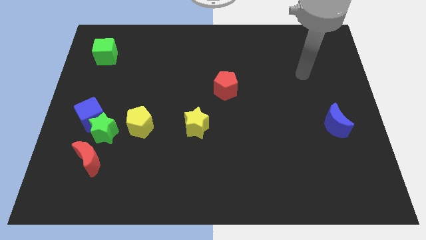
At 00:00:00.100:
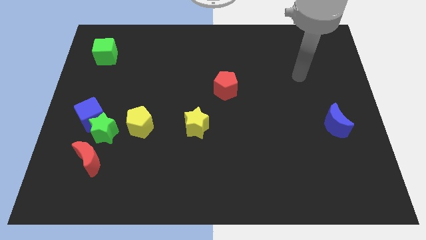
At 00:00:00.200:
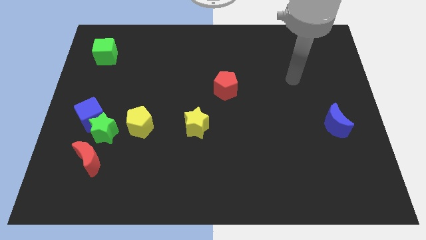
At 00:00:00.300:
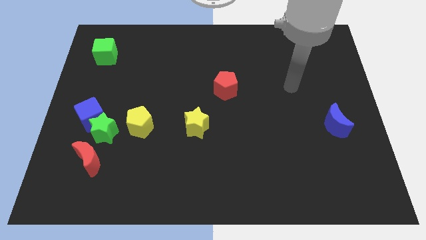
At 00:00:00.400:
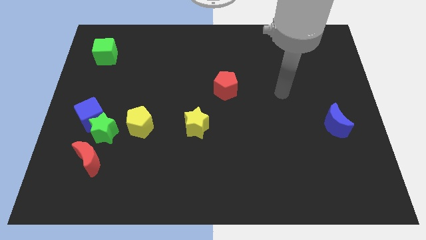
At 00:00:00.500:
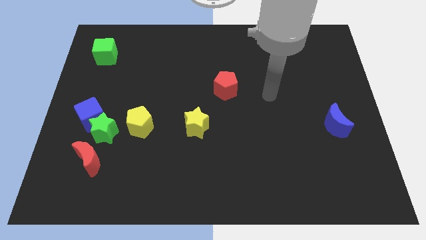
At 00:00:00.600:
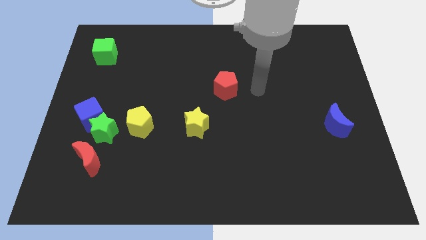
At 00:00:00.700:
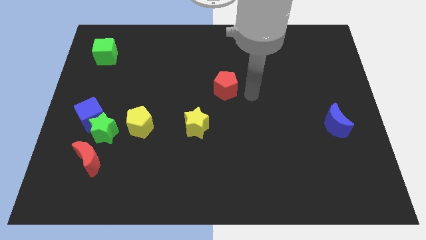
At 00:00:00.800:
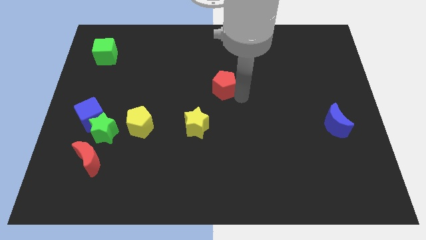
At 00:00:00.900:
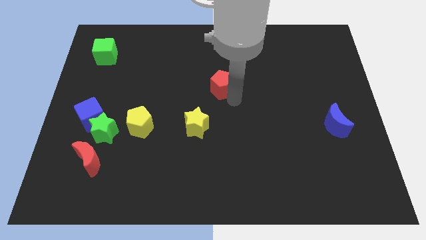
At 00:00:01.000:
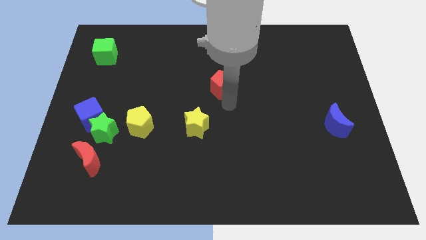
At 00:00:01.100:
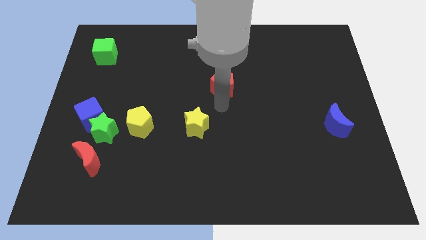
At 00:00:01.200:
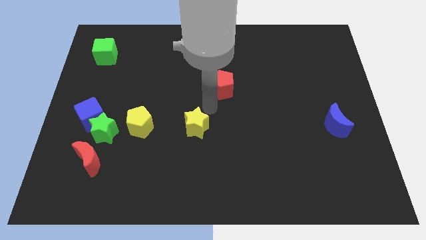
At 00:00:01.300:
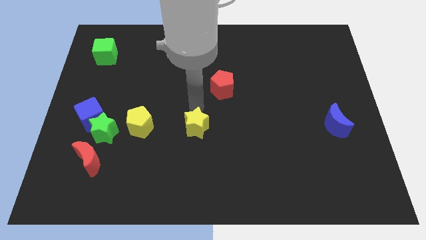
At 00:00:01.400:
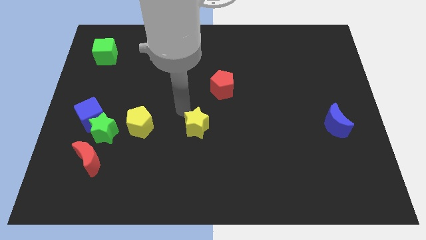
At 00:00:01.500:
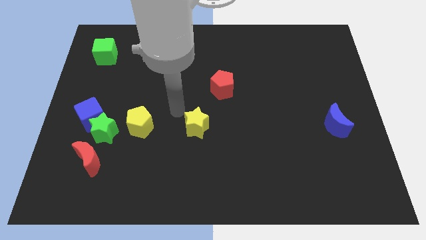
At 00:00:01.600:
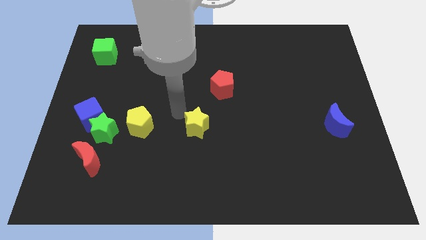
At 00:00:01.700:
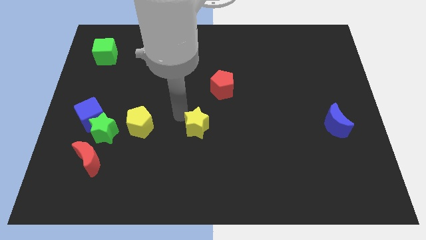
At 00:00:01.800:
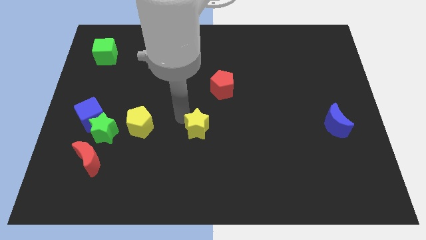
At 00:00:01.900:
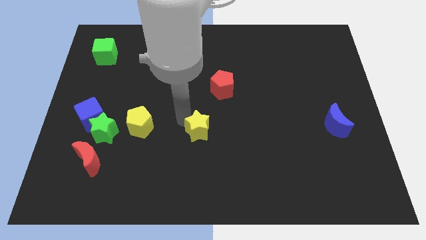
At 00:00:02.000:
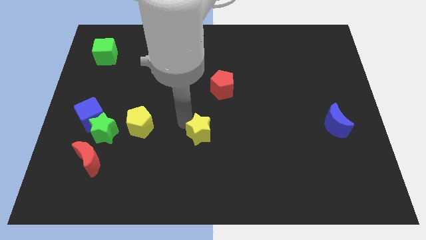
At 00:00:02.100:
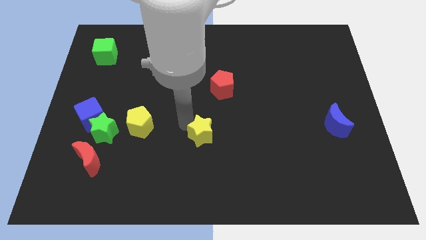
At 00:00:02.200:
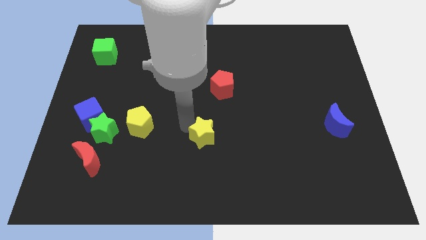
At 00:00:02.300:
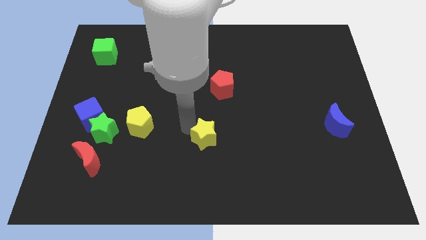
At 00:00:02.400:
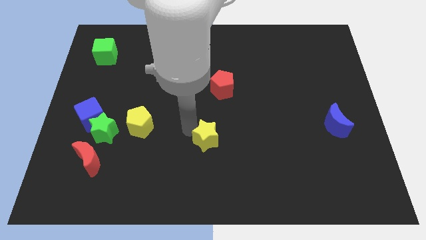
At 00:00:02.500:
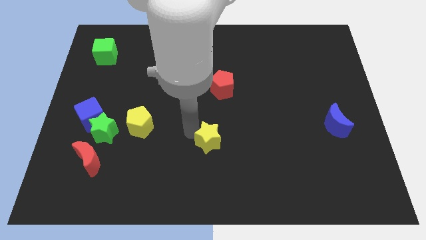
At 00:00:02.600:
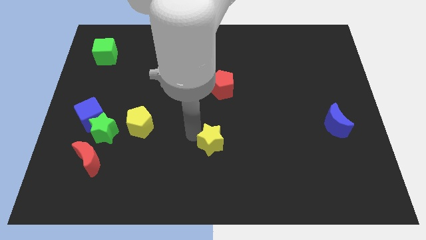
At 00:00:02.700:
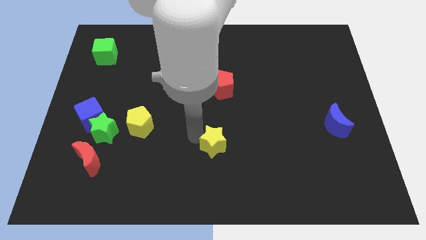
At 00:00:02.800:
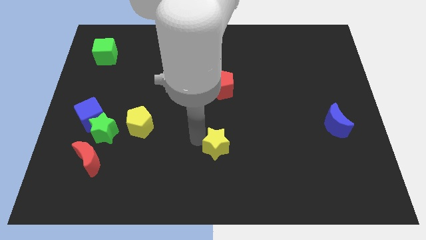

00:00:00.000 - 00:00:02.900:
move the yellow star downwards and then to the right a bit

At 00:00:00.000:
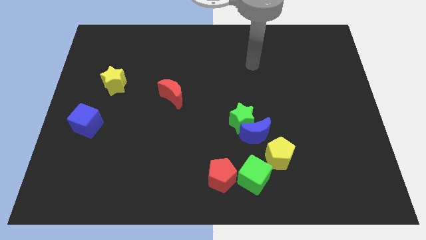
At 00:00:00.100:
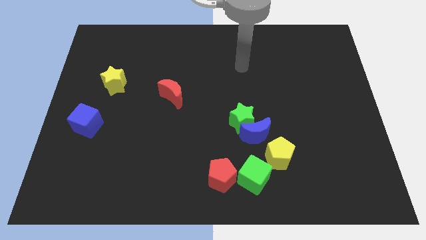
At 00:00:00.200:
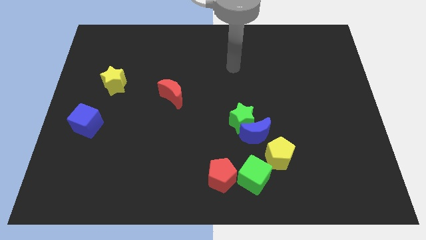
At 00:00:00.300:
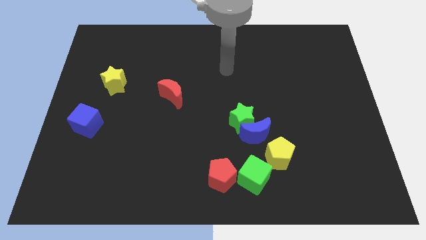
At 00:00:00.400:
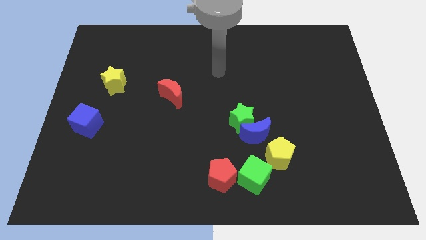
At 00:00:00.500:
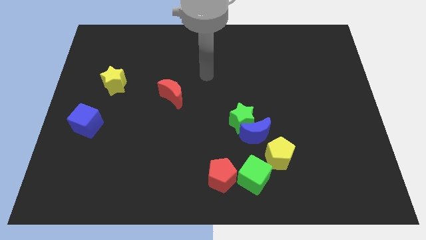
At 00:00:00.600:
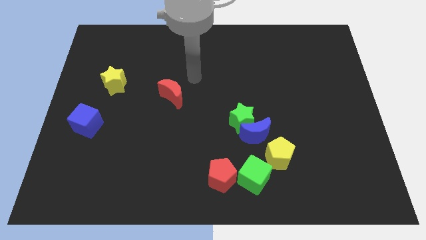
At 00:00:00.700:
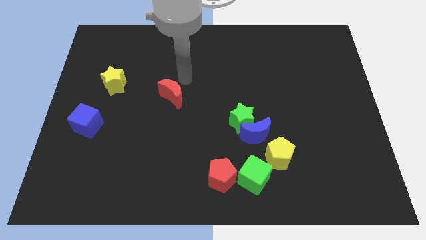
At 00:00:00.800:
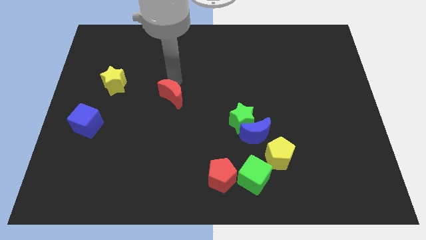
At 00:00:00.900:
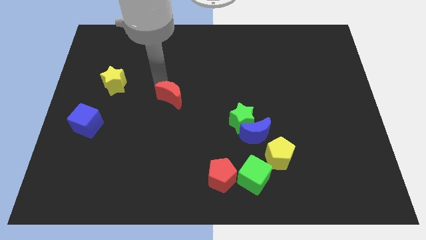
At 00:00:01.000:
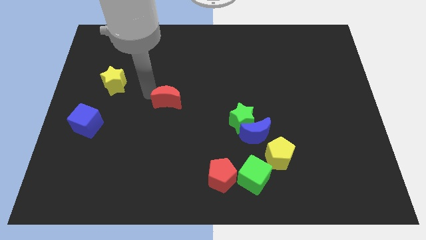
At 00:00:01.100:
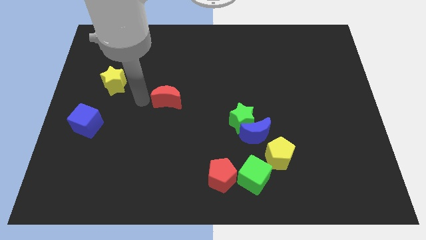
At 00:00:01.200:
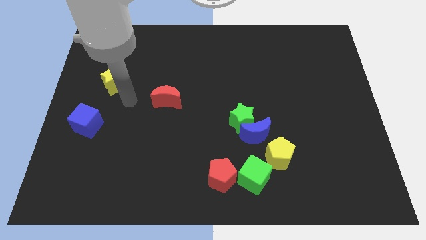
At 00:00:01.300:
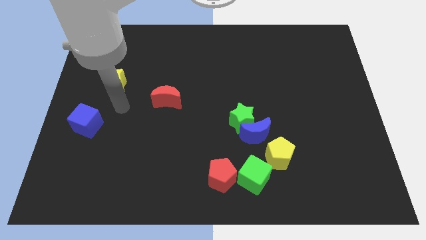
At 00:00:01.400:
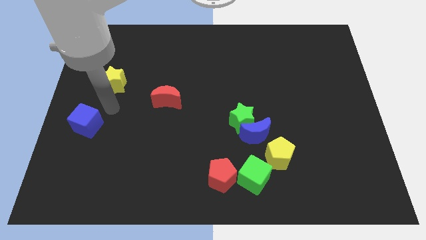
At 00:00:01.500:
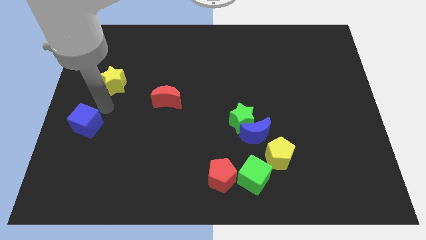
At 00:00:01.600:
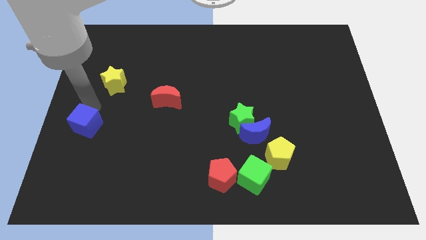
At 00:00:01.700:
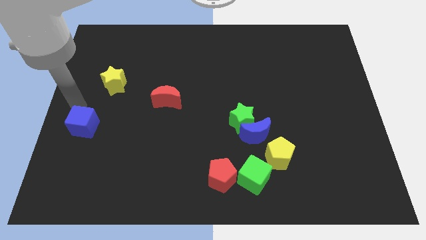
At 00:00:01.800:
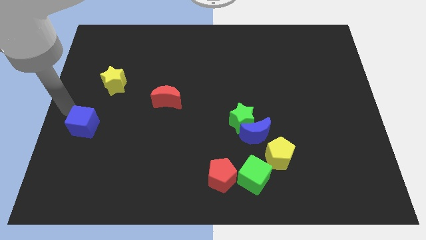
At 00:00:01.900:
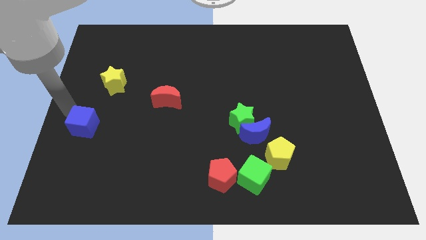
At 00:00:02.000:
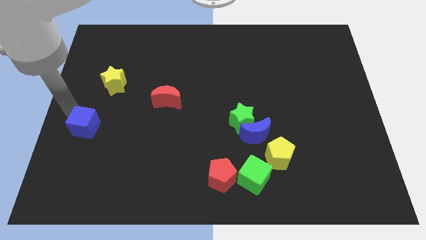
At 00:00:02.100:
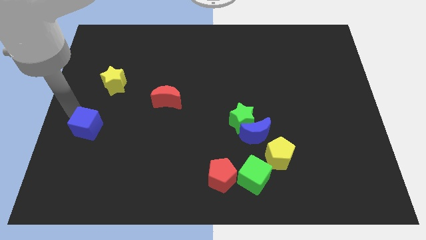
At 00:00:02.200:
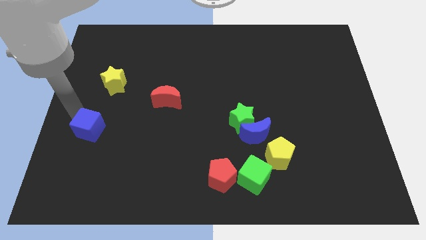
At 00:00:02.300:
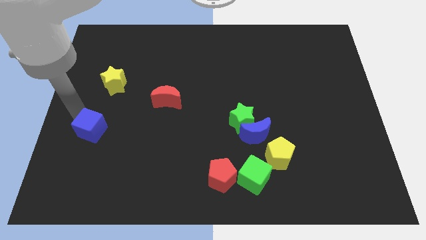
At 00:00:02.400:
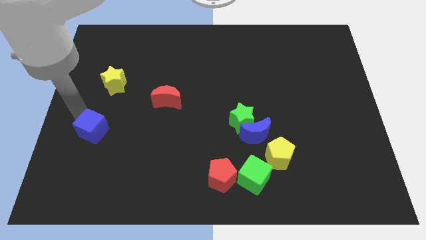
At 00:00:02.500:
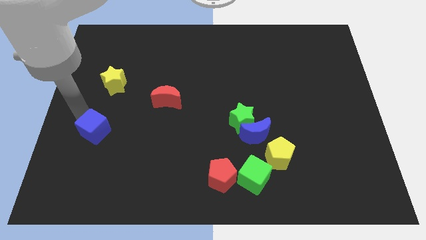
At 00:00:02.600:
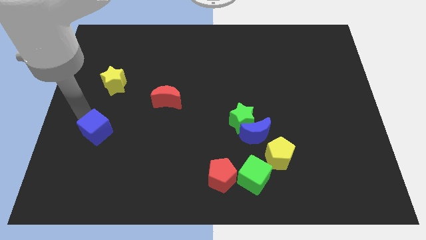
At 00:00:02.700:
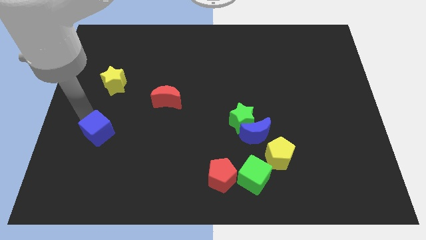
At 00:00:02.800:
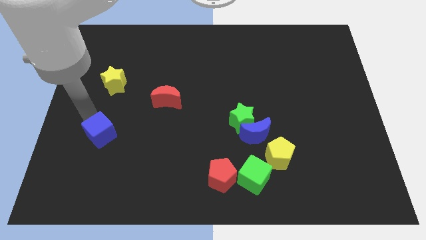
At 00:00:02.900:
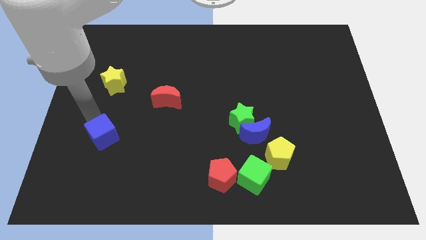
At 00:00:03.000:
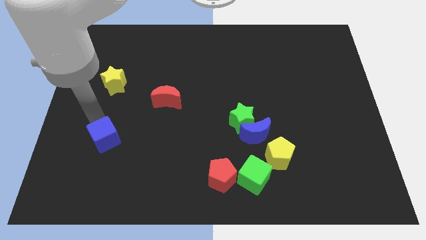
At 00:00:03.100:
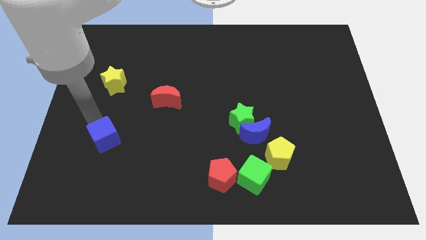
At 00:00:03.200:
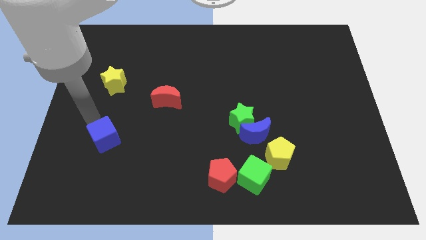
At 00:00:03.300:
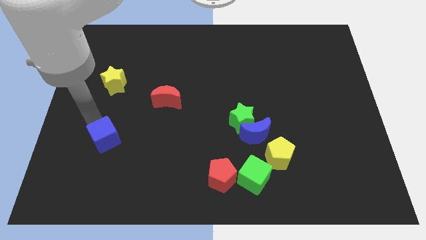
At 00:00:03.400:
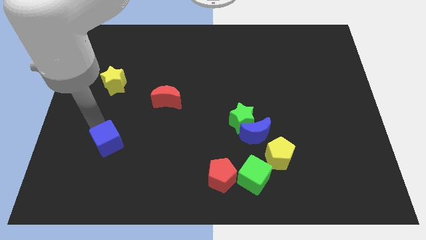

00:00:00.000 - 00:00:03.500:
slide the blue cube diagonally down and to the right a bit

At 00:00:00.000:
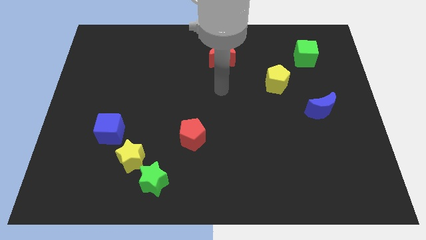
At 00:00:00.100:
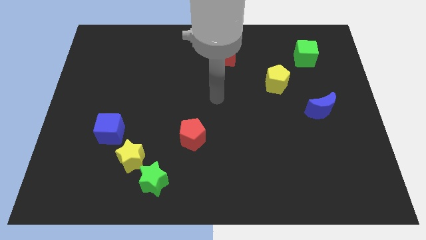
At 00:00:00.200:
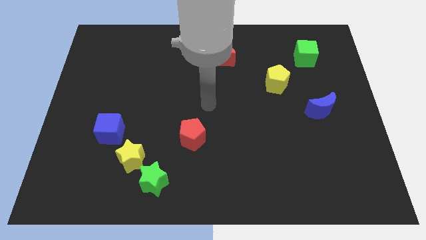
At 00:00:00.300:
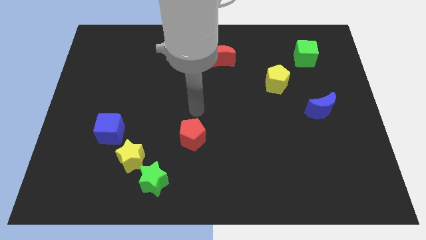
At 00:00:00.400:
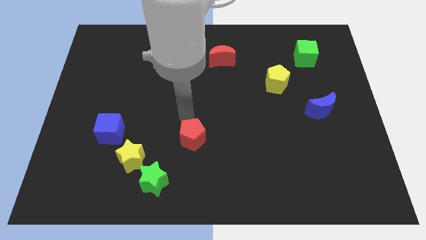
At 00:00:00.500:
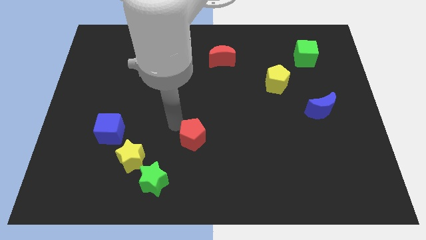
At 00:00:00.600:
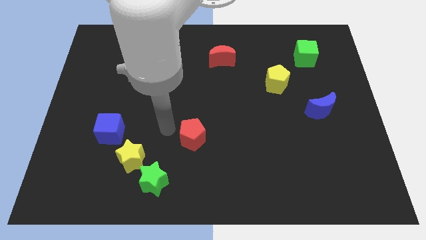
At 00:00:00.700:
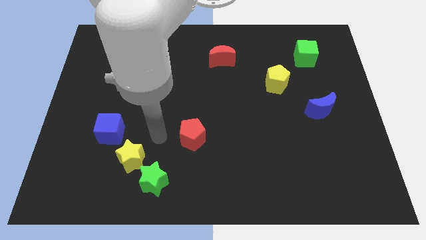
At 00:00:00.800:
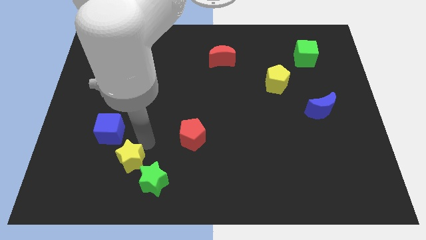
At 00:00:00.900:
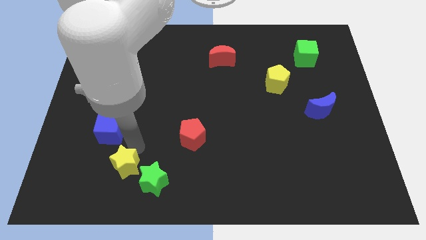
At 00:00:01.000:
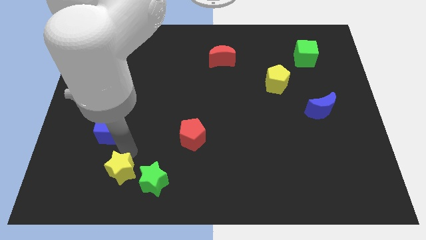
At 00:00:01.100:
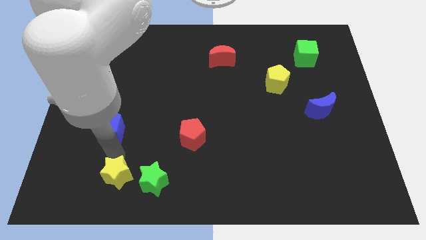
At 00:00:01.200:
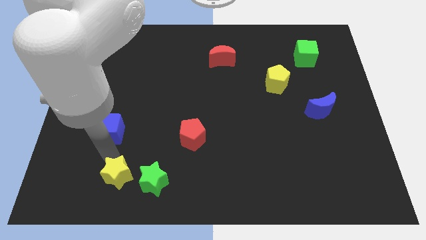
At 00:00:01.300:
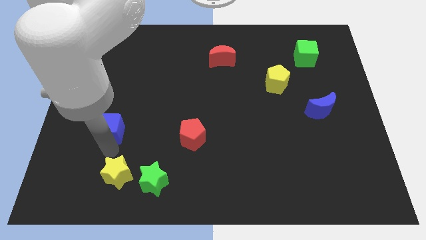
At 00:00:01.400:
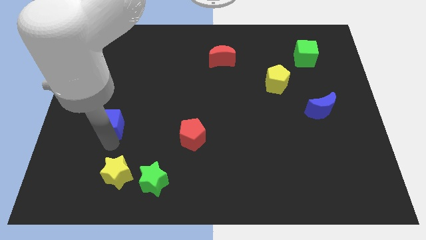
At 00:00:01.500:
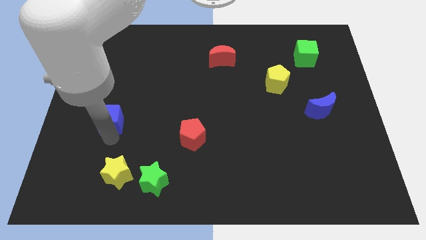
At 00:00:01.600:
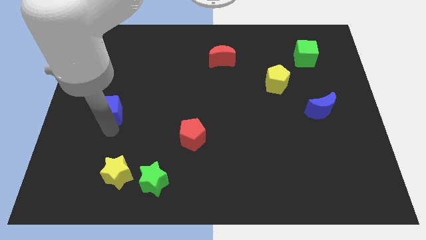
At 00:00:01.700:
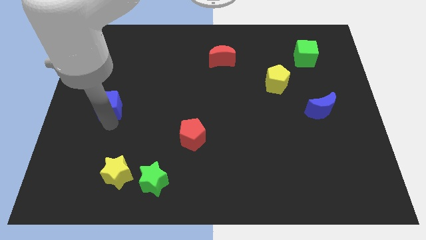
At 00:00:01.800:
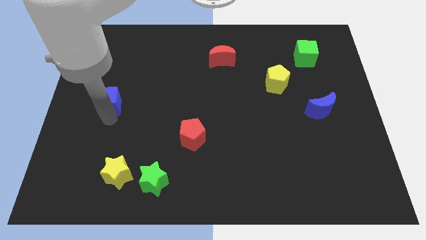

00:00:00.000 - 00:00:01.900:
push the blue cube up a bit
